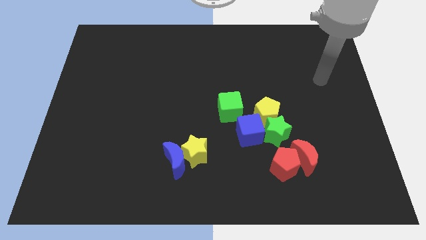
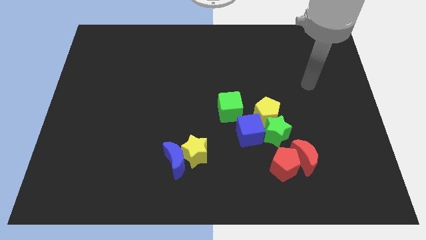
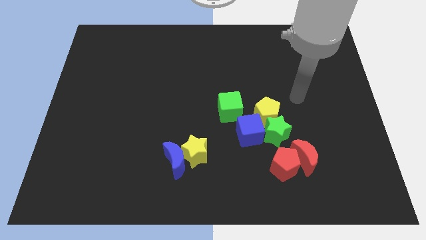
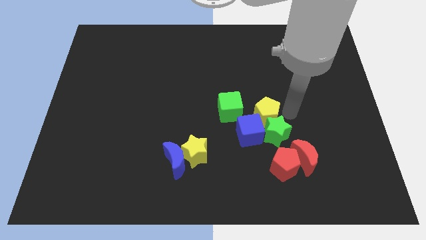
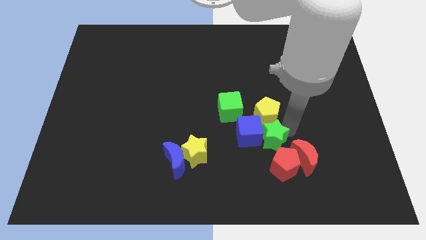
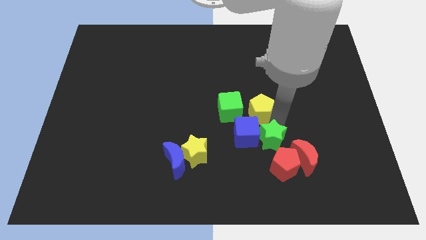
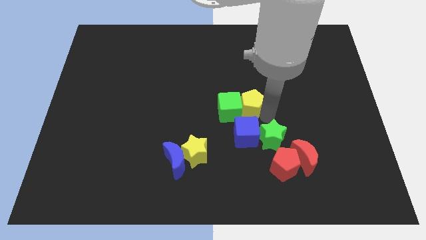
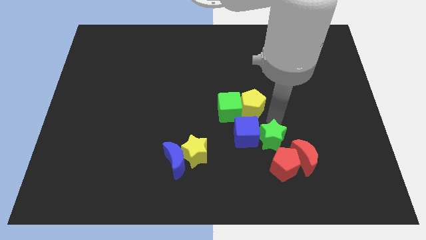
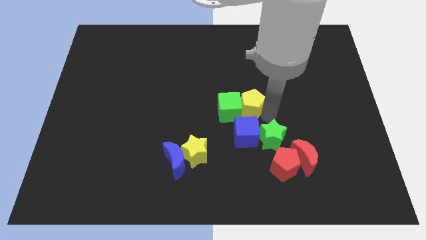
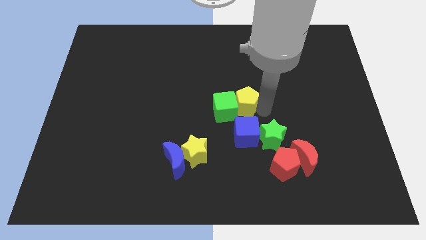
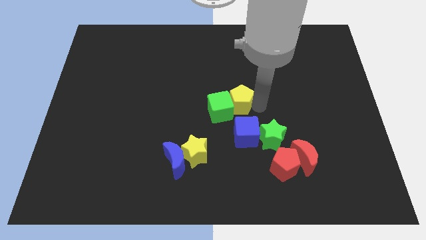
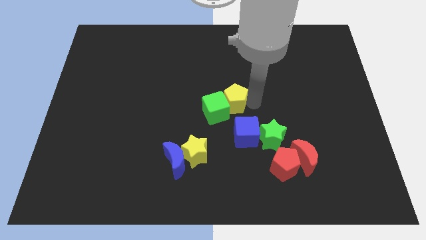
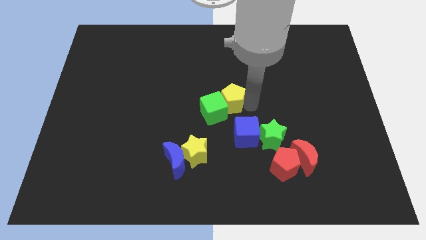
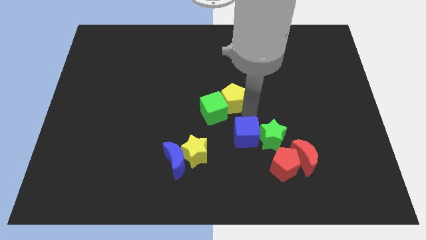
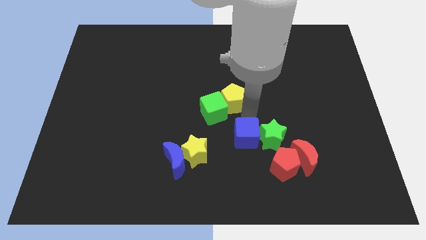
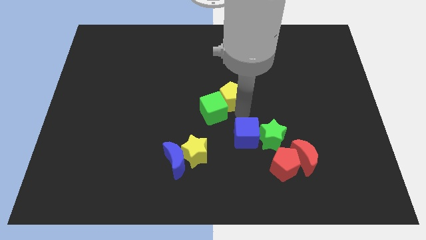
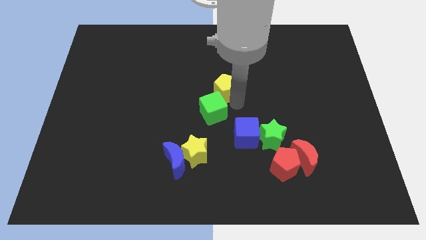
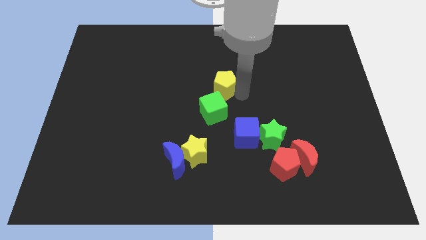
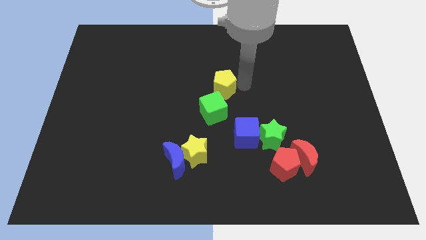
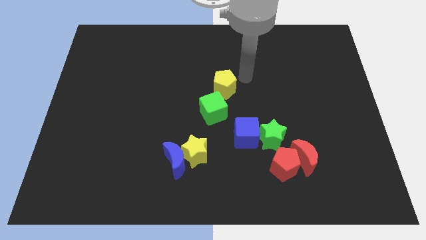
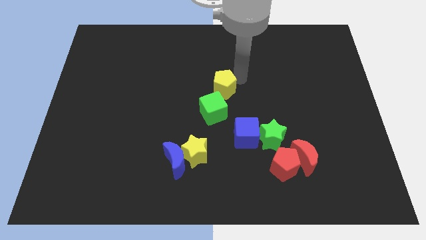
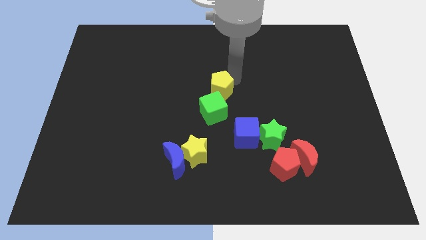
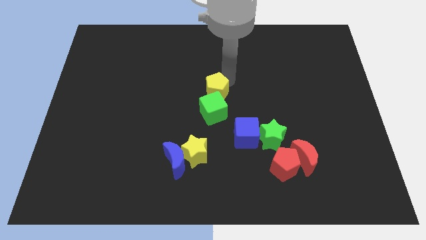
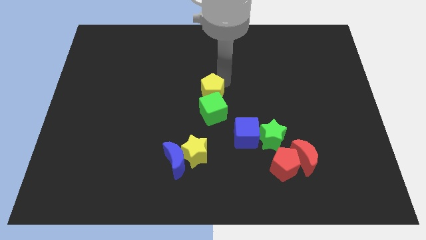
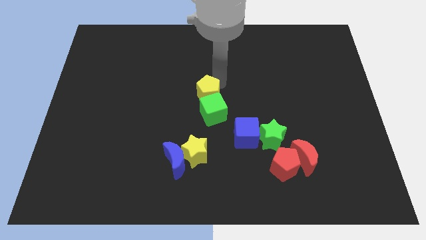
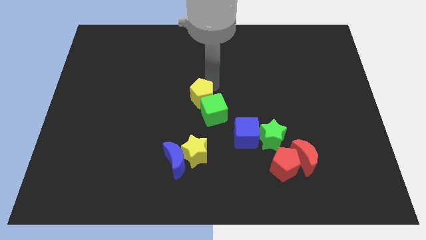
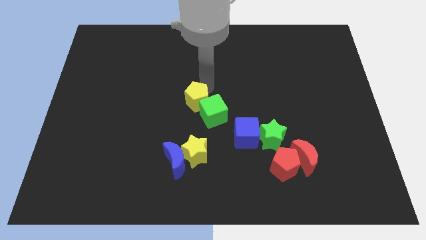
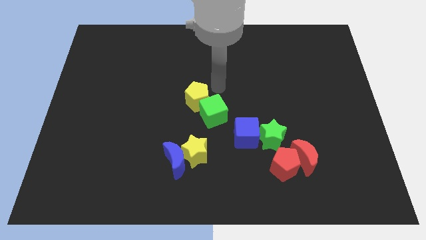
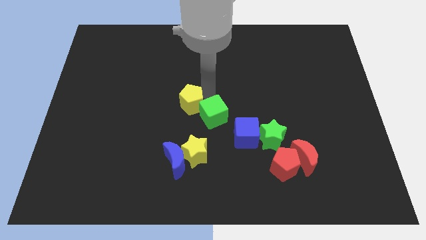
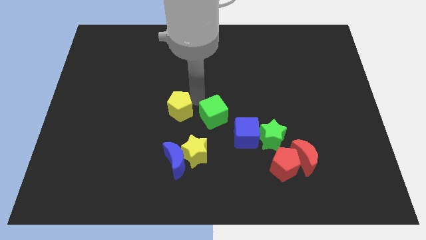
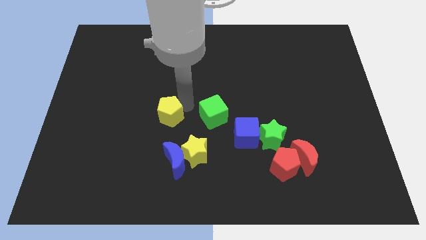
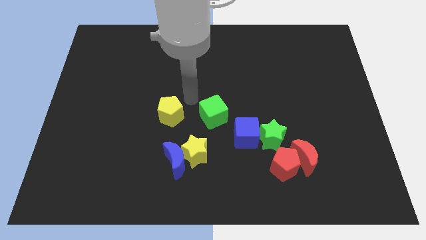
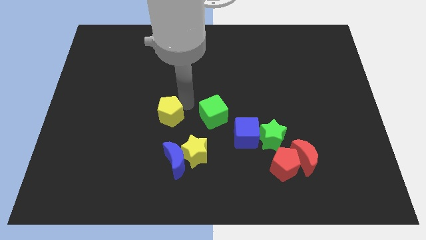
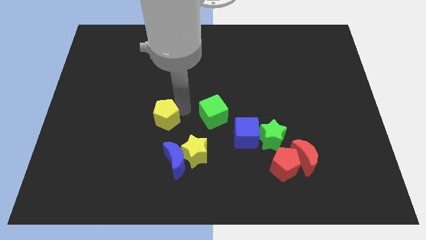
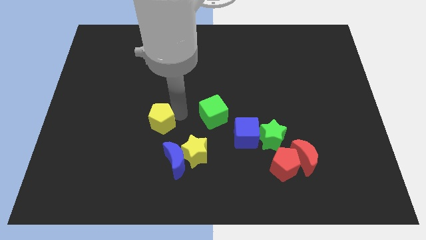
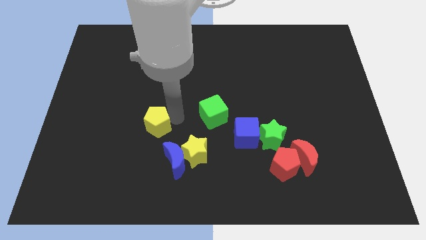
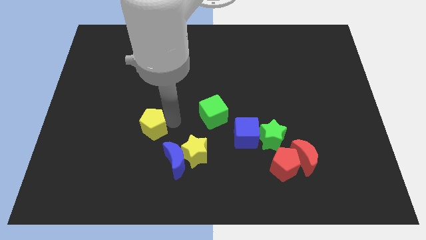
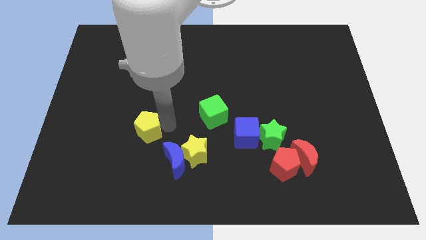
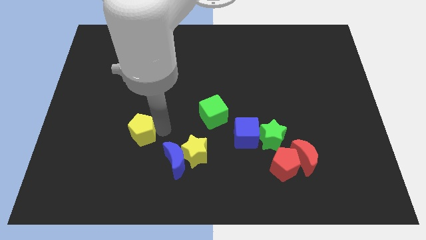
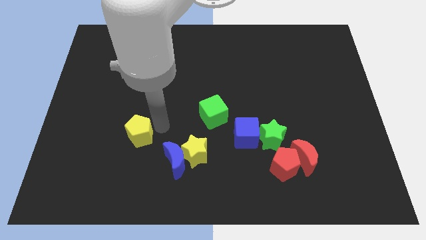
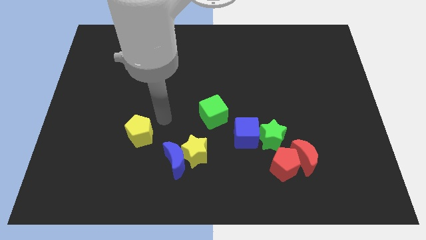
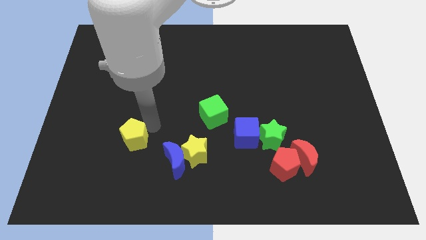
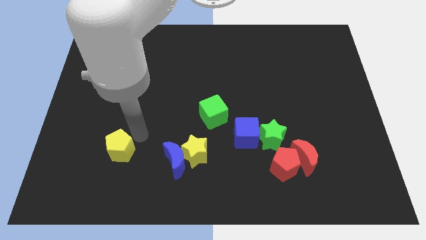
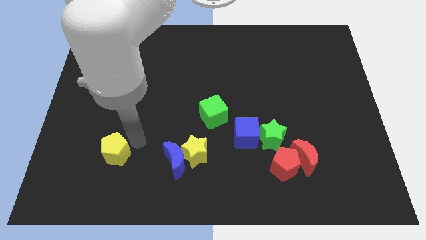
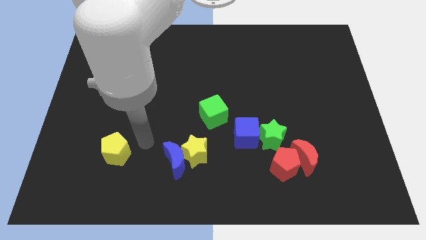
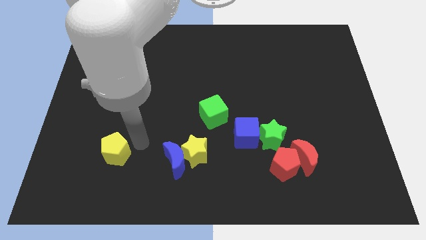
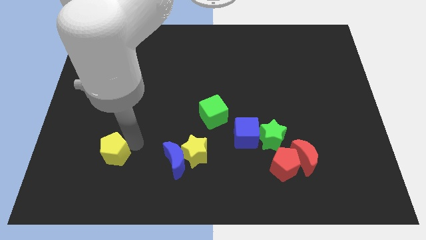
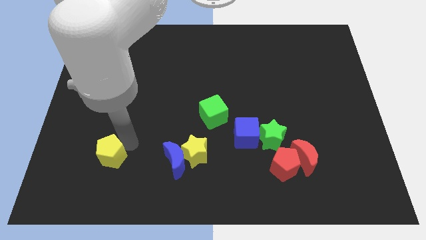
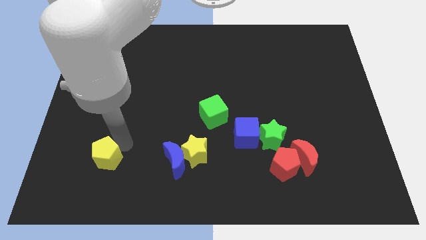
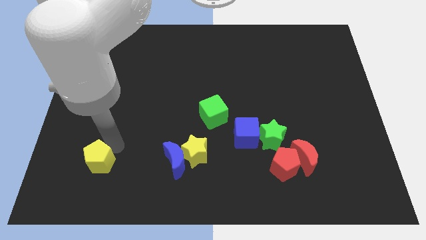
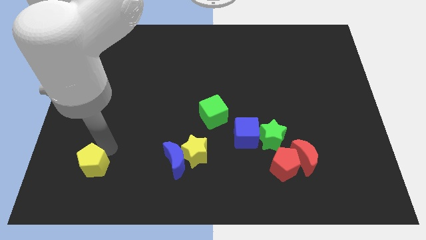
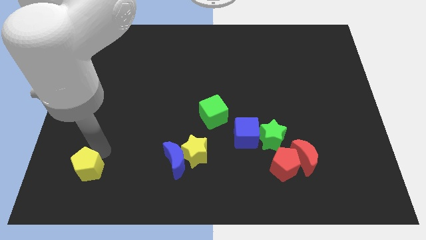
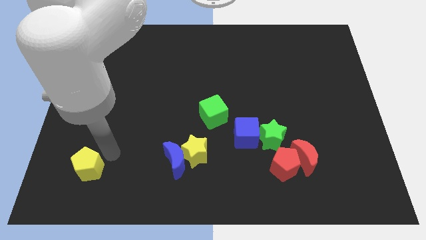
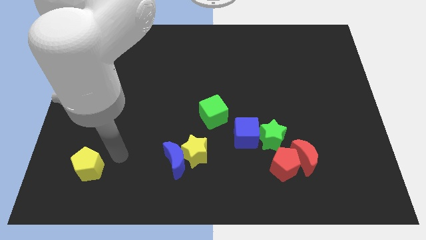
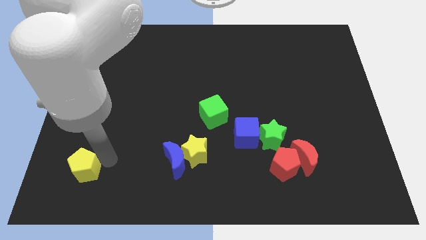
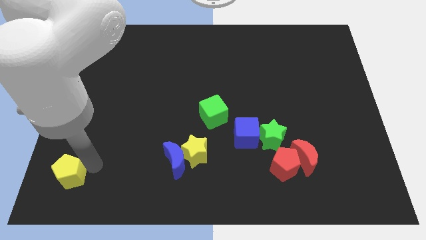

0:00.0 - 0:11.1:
slide the yellow pentagon to the bottom left

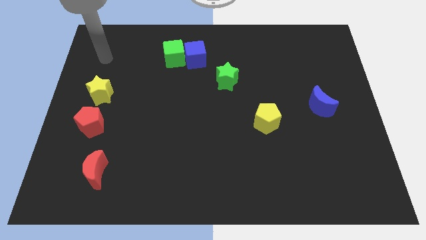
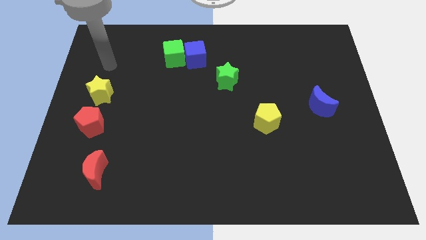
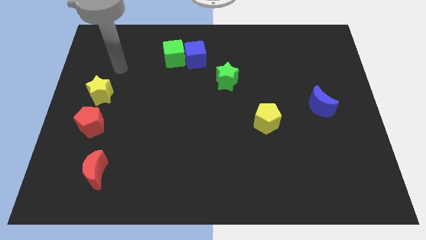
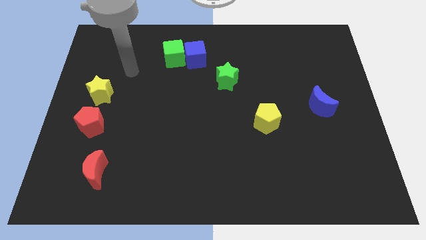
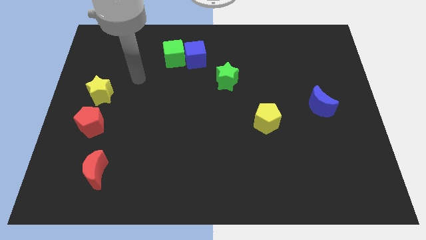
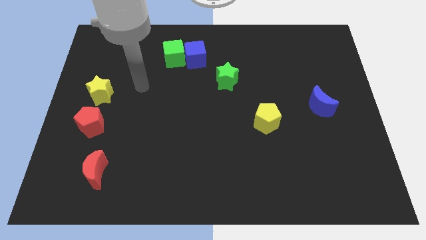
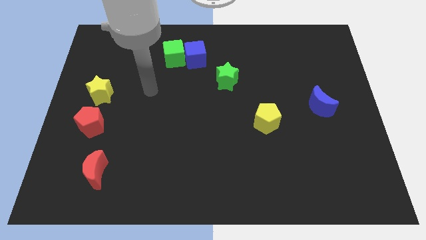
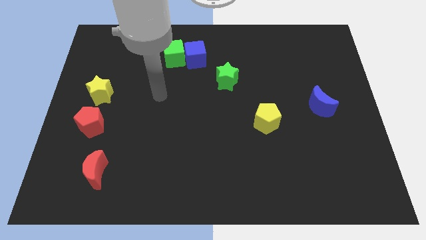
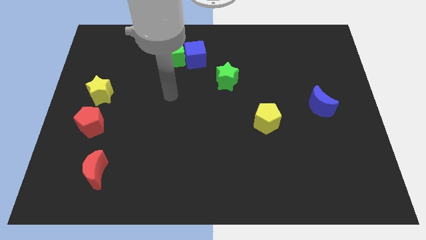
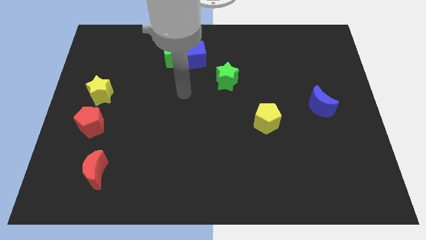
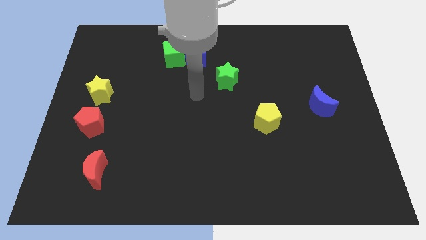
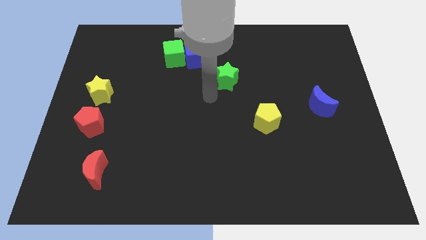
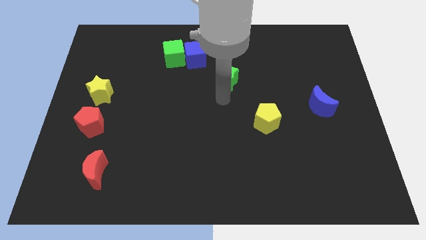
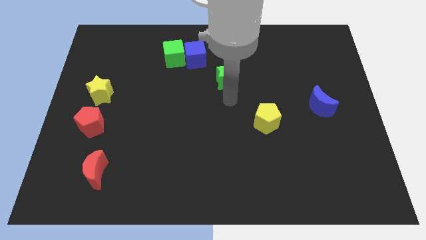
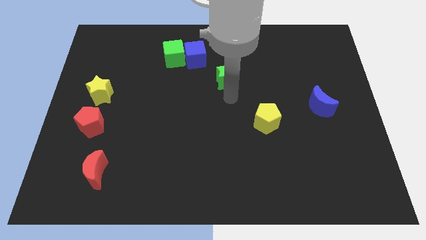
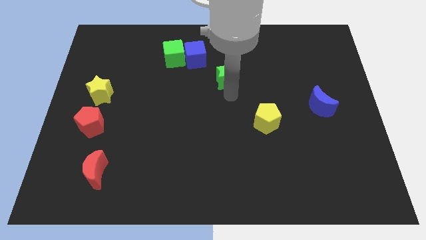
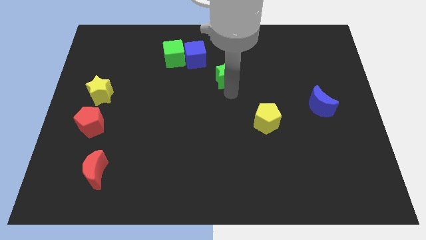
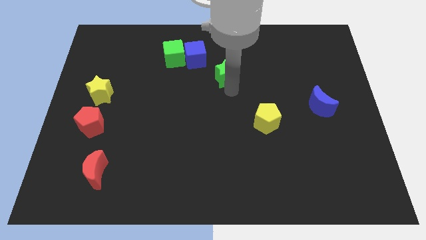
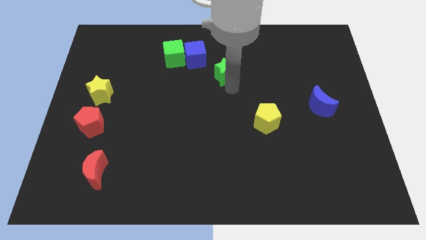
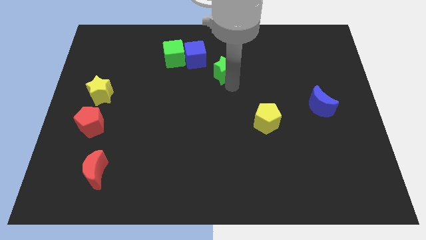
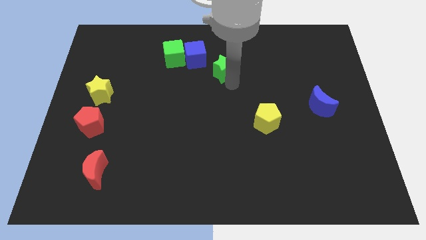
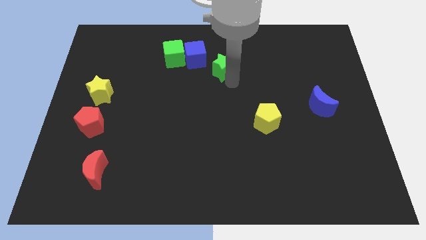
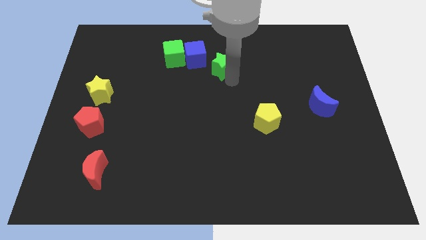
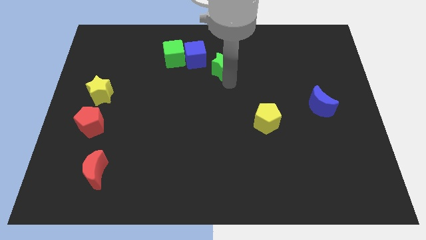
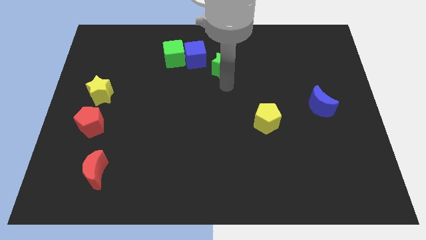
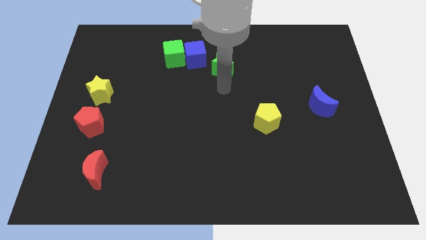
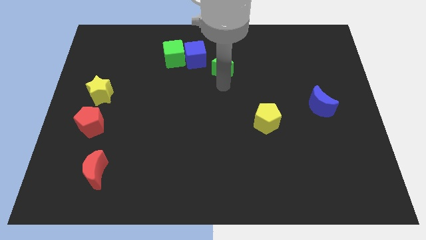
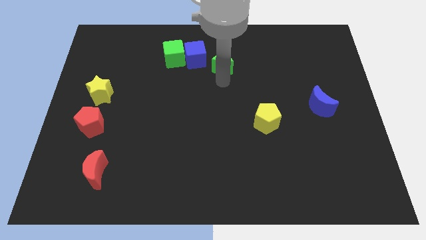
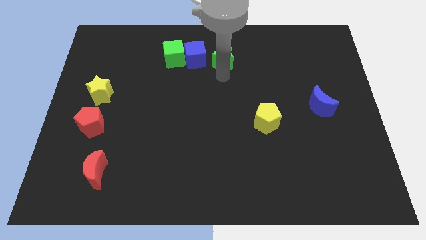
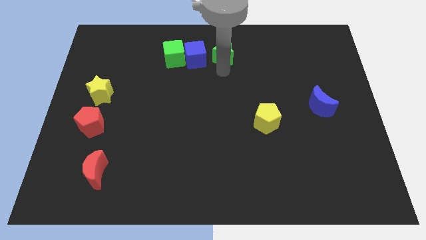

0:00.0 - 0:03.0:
move the green star to the top
